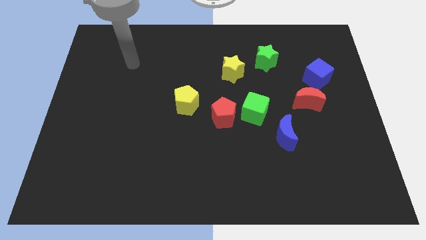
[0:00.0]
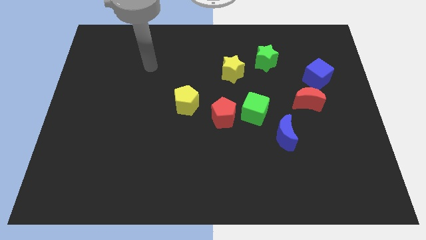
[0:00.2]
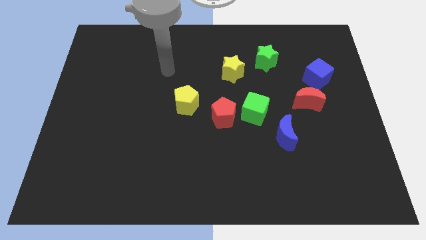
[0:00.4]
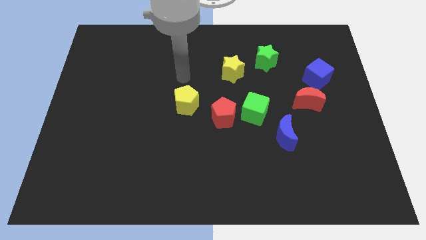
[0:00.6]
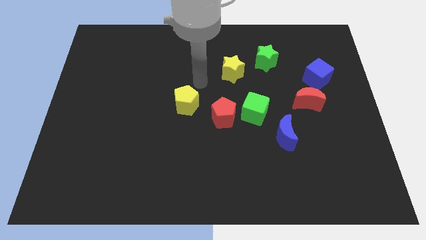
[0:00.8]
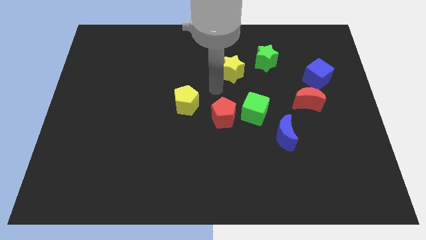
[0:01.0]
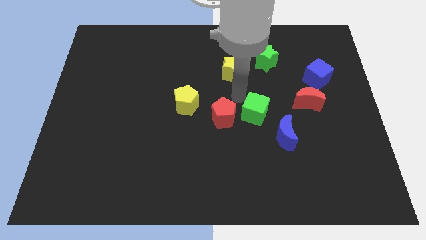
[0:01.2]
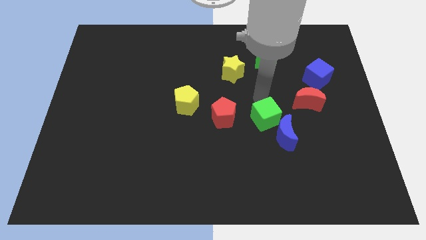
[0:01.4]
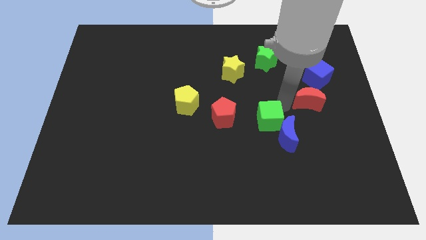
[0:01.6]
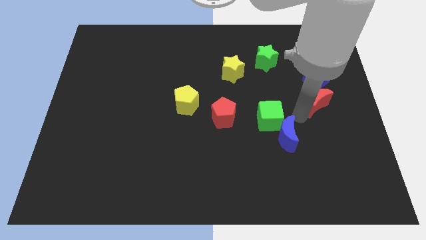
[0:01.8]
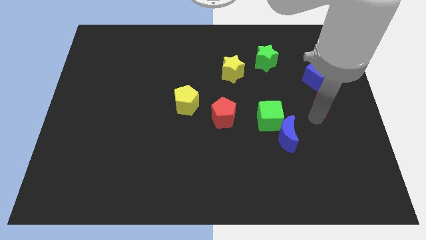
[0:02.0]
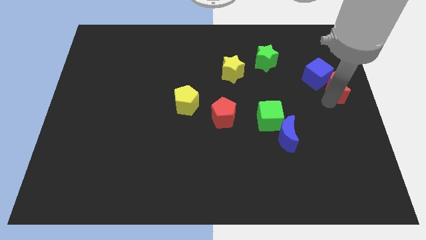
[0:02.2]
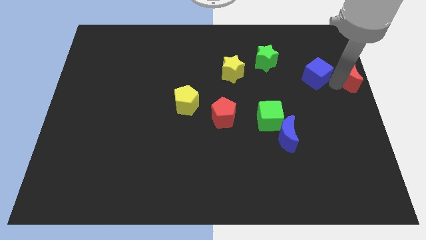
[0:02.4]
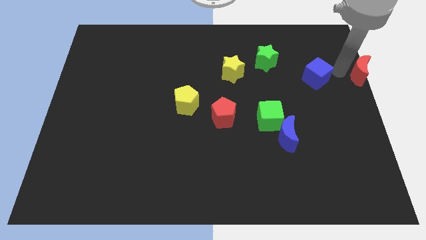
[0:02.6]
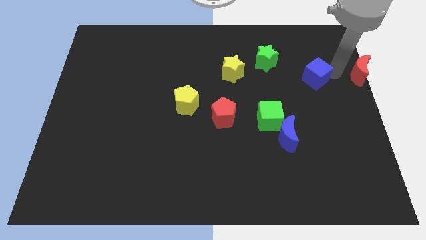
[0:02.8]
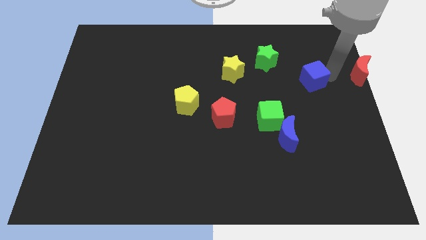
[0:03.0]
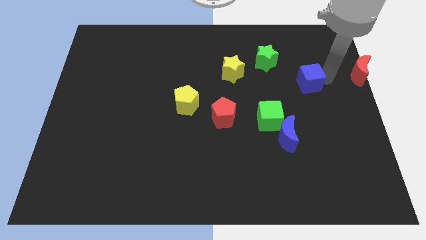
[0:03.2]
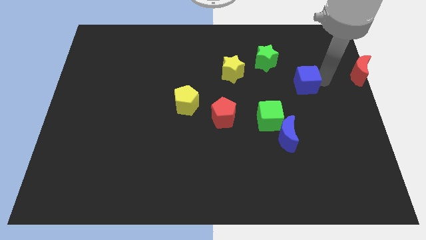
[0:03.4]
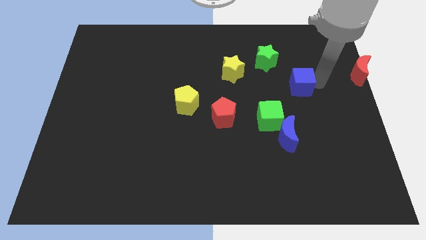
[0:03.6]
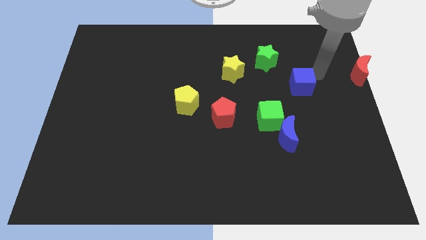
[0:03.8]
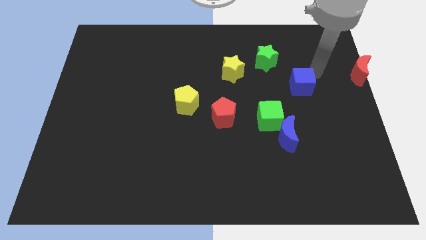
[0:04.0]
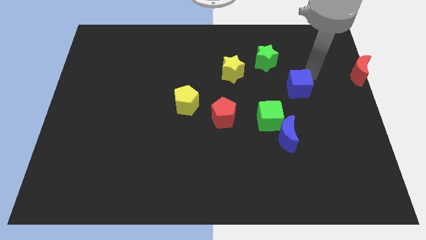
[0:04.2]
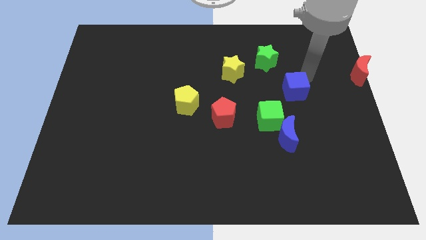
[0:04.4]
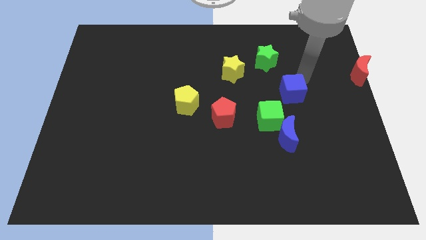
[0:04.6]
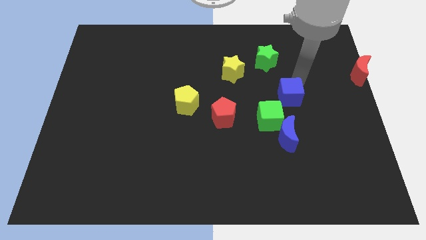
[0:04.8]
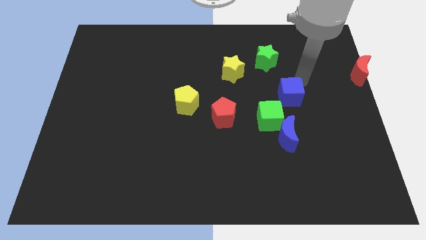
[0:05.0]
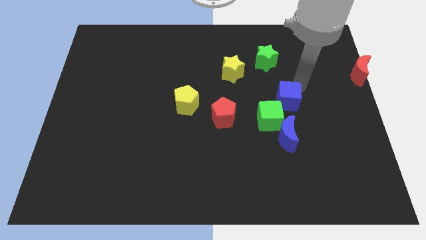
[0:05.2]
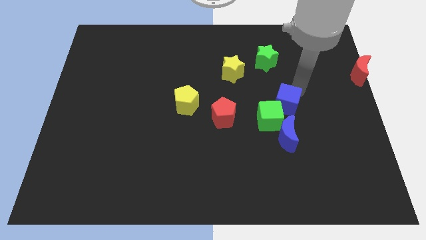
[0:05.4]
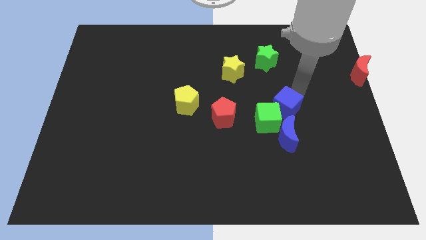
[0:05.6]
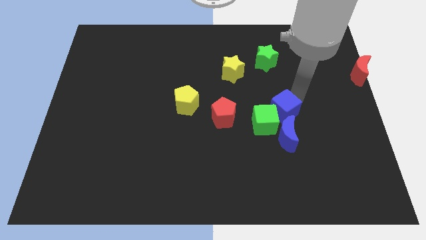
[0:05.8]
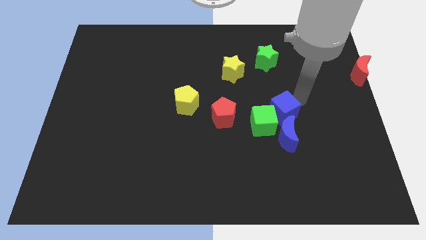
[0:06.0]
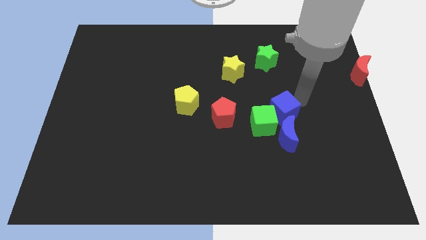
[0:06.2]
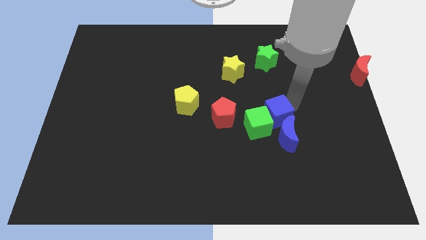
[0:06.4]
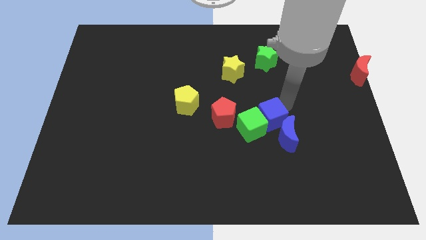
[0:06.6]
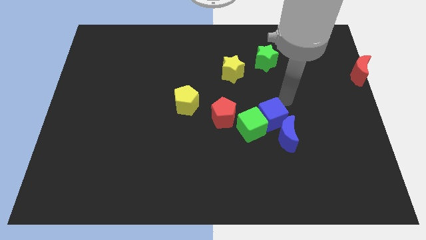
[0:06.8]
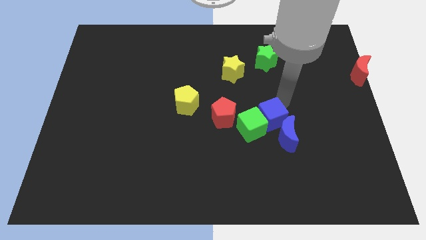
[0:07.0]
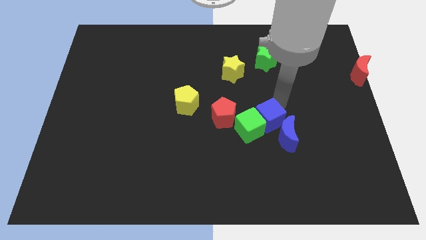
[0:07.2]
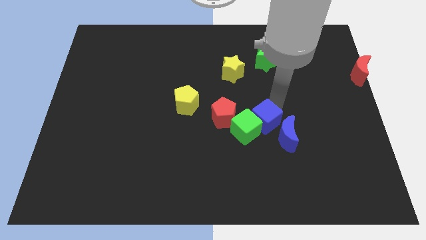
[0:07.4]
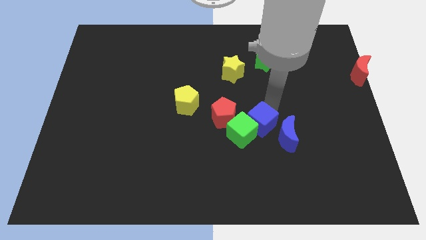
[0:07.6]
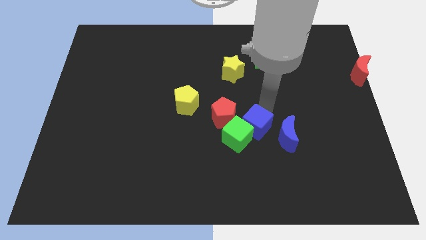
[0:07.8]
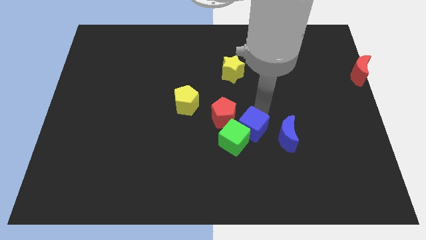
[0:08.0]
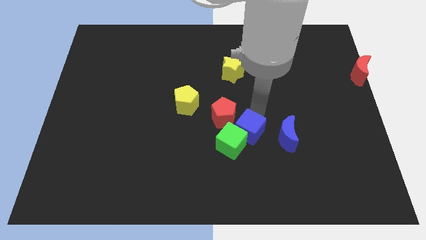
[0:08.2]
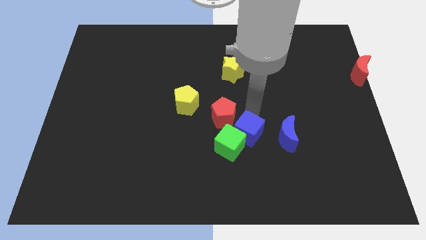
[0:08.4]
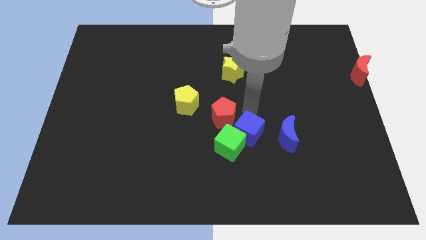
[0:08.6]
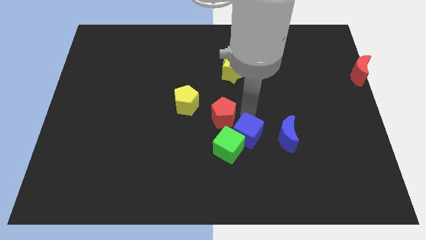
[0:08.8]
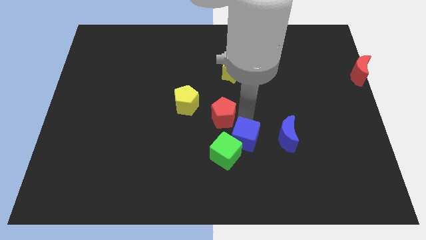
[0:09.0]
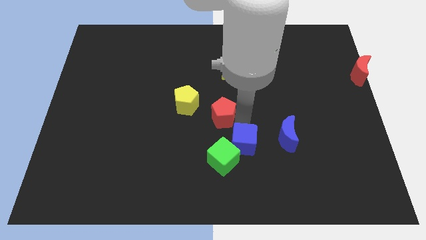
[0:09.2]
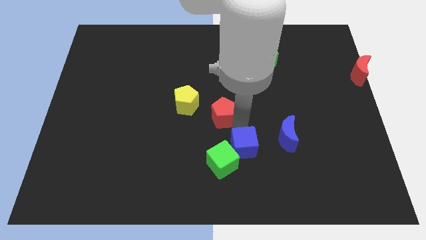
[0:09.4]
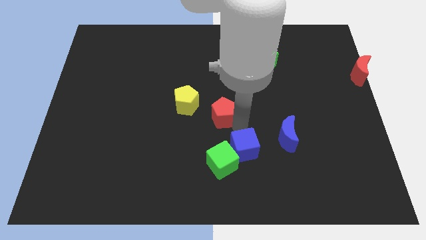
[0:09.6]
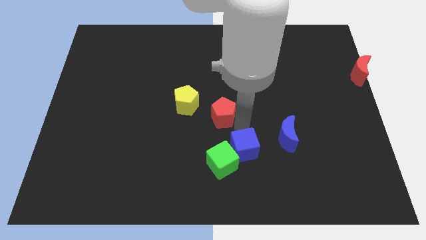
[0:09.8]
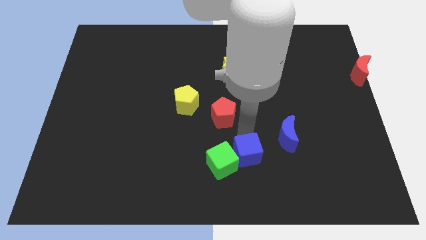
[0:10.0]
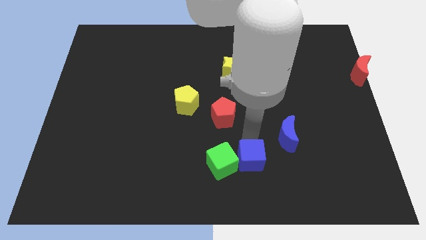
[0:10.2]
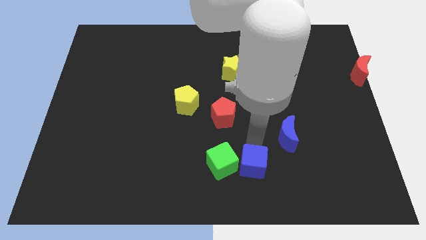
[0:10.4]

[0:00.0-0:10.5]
move the blue cube to the bottom side

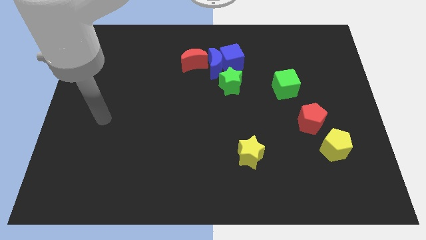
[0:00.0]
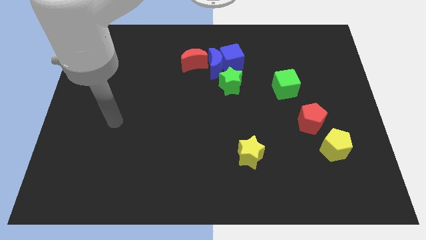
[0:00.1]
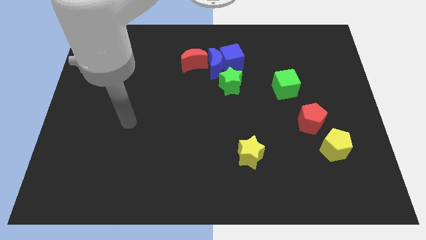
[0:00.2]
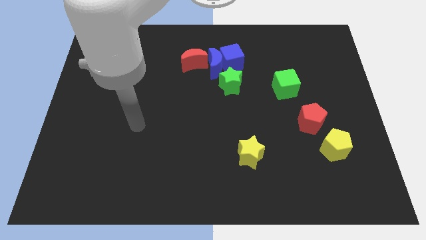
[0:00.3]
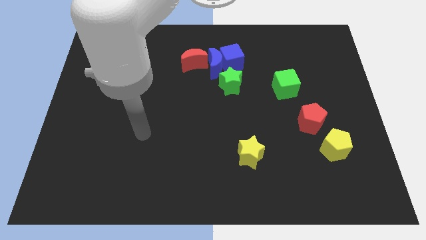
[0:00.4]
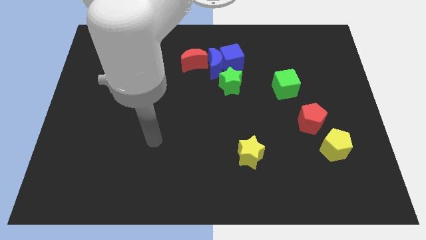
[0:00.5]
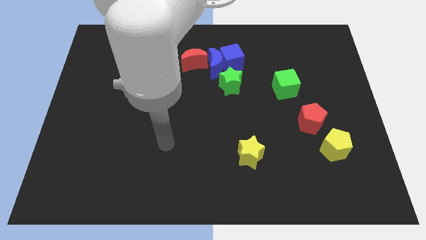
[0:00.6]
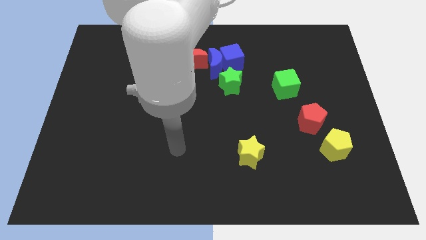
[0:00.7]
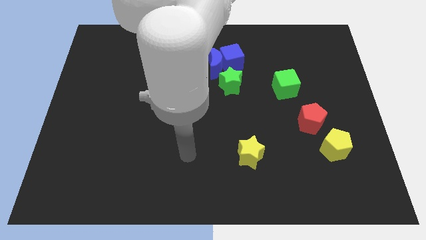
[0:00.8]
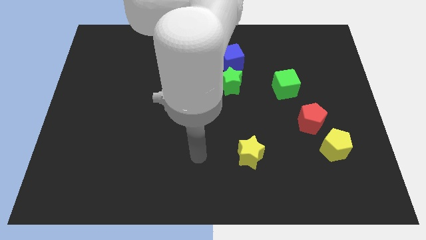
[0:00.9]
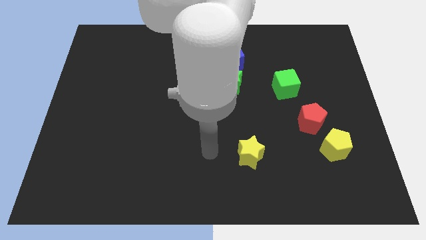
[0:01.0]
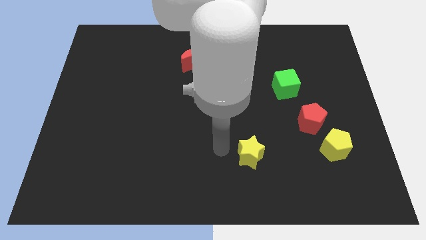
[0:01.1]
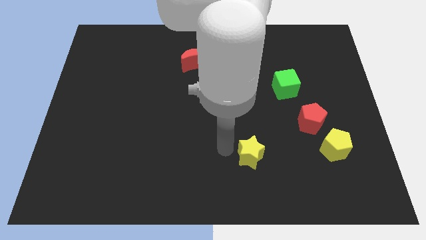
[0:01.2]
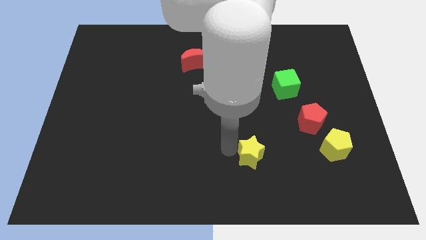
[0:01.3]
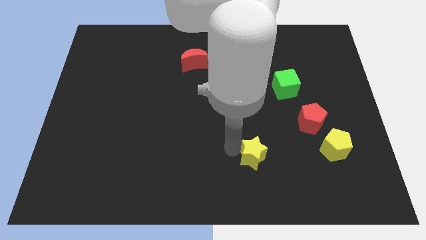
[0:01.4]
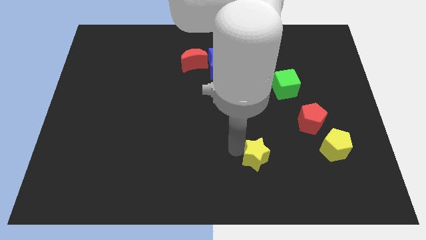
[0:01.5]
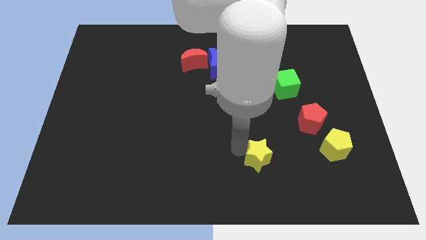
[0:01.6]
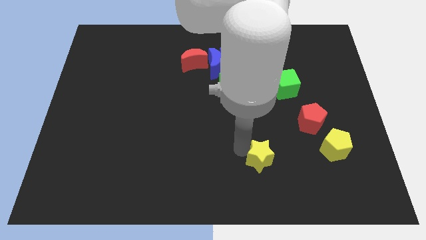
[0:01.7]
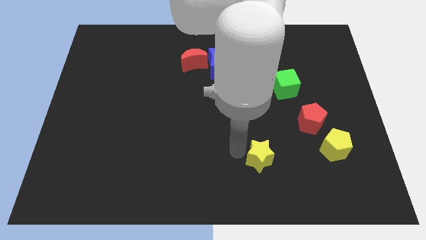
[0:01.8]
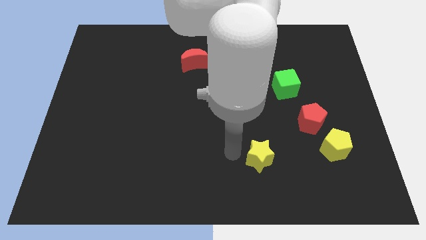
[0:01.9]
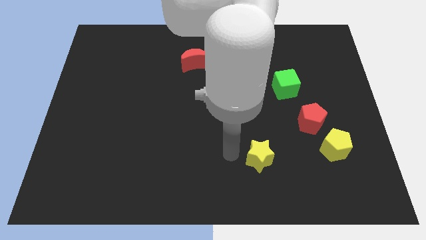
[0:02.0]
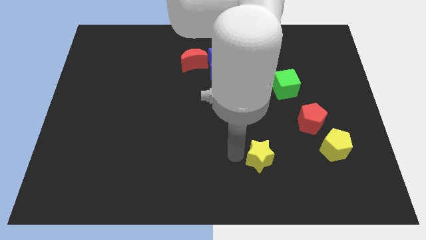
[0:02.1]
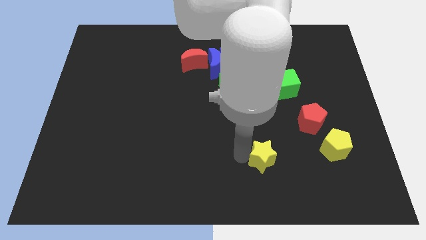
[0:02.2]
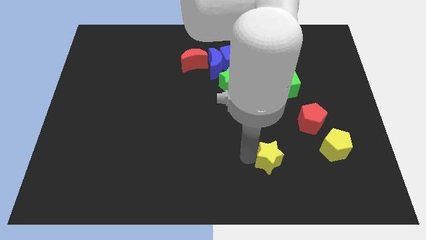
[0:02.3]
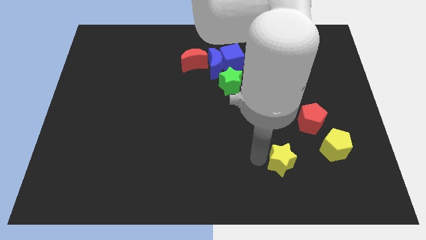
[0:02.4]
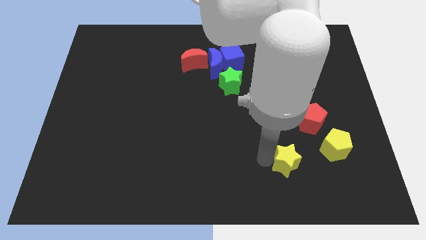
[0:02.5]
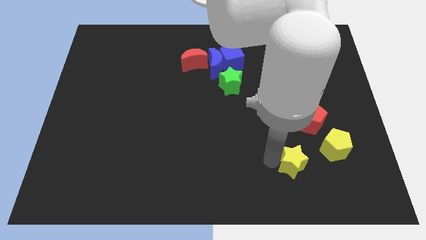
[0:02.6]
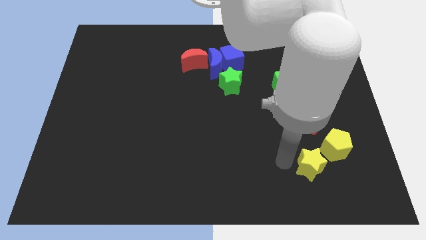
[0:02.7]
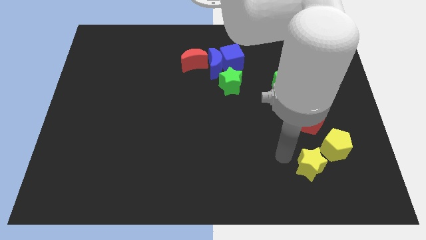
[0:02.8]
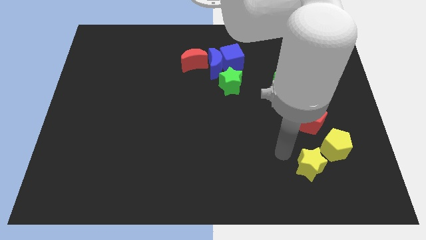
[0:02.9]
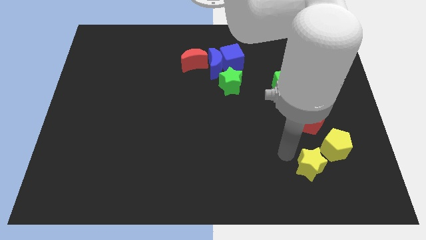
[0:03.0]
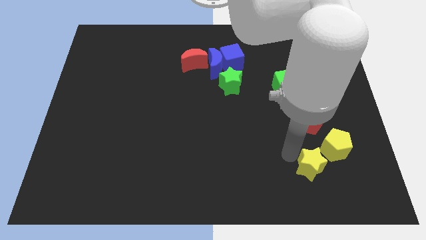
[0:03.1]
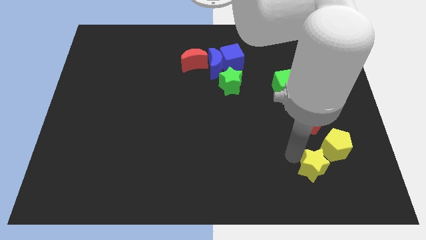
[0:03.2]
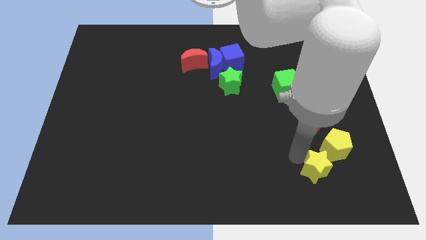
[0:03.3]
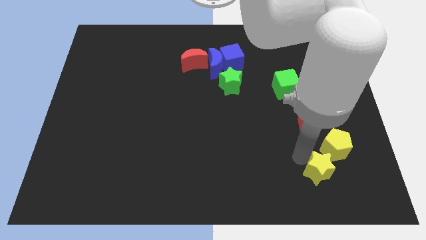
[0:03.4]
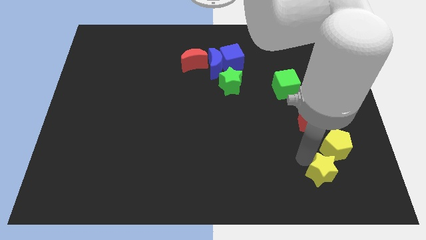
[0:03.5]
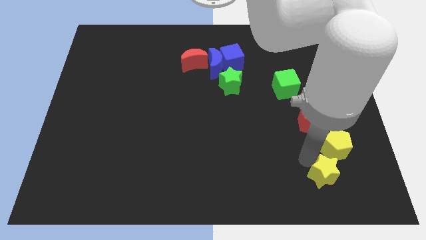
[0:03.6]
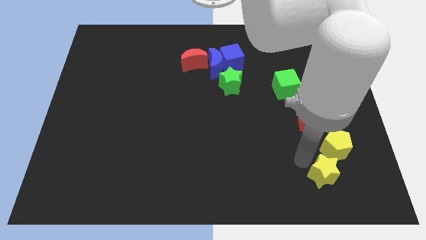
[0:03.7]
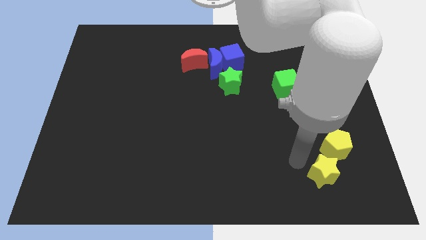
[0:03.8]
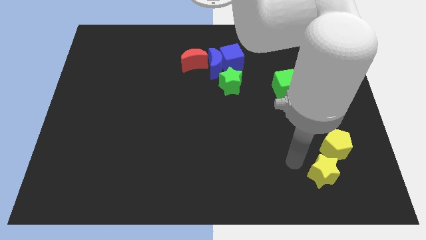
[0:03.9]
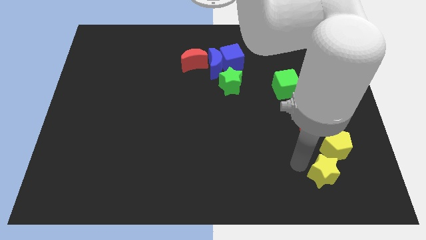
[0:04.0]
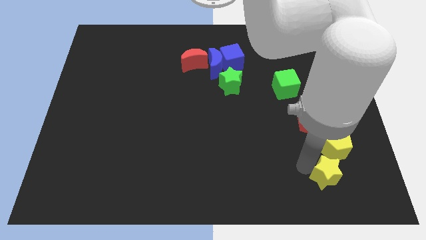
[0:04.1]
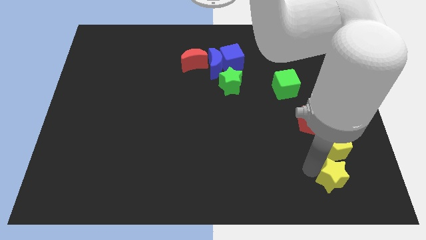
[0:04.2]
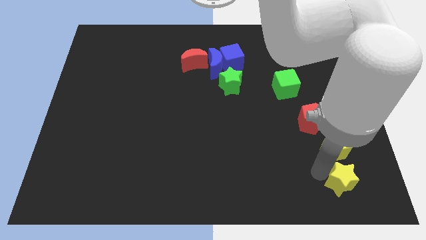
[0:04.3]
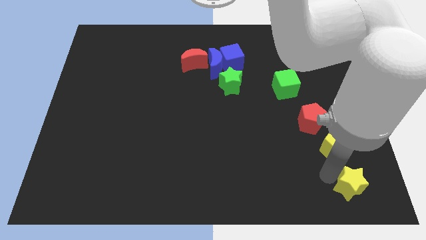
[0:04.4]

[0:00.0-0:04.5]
slide the yellow star to the bottom right
